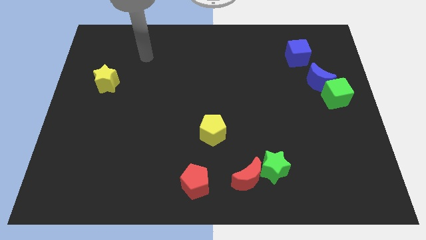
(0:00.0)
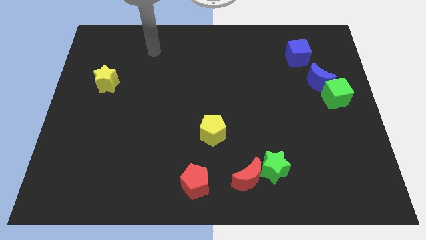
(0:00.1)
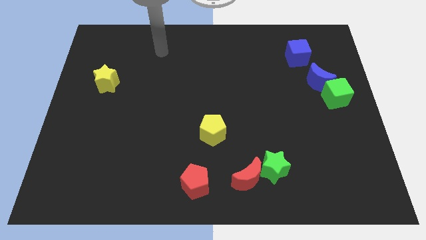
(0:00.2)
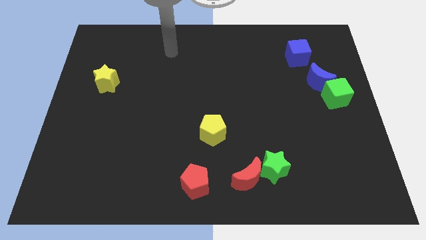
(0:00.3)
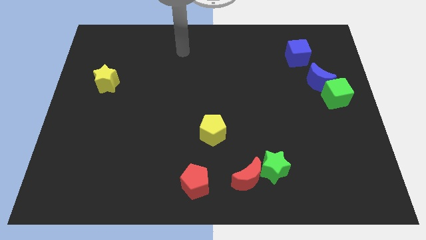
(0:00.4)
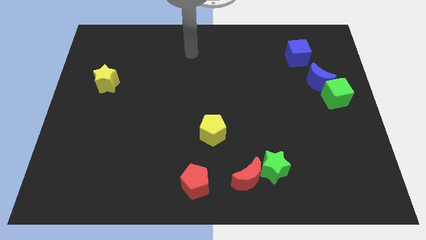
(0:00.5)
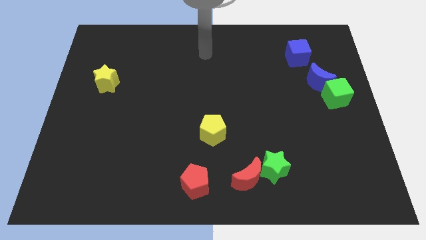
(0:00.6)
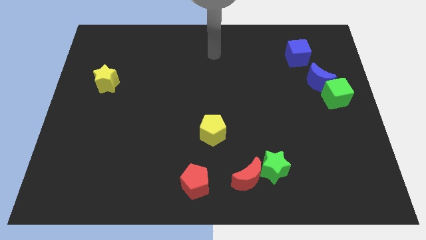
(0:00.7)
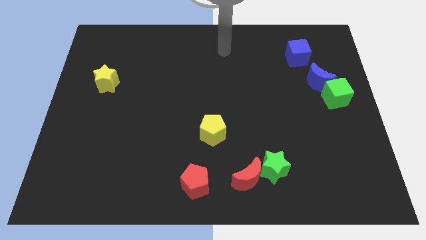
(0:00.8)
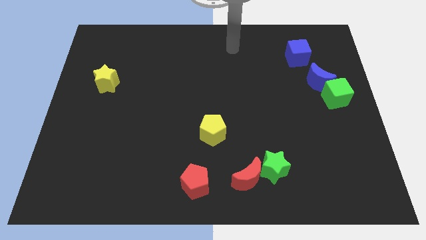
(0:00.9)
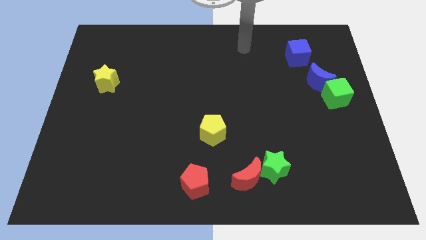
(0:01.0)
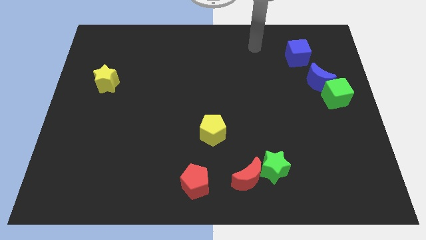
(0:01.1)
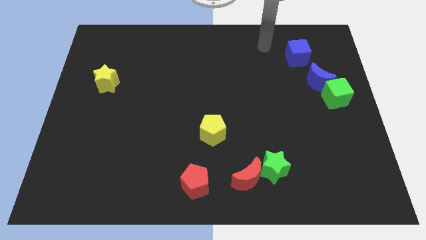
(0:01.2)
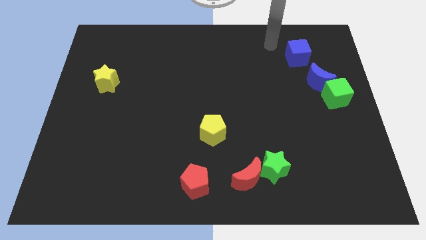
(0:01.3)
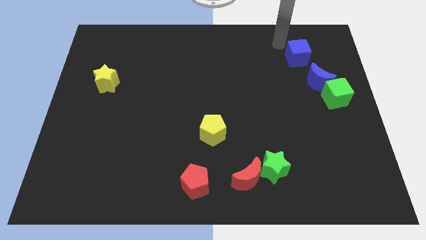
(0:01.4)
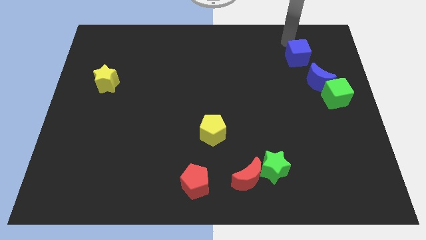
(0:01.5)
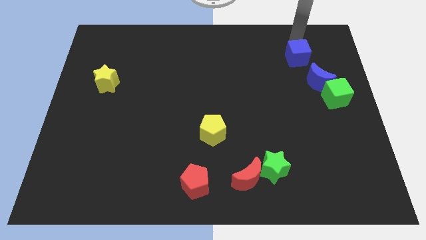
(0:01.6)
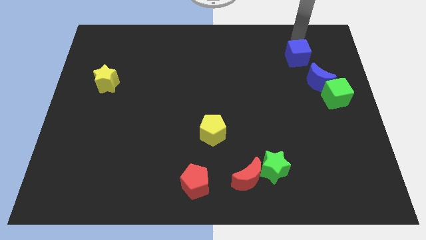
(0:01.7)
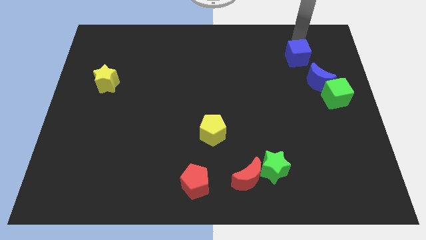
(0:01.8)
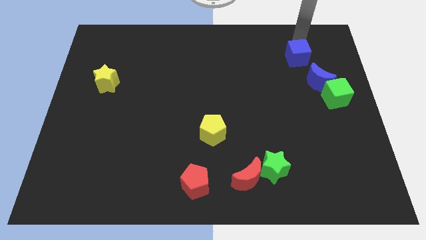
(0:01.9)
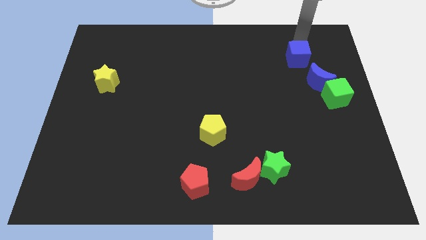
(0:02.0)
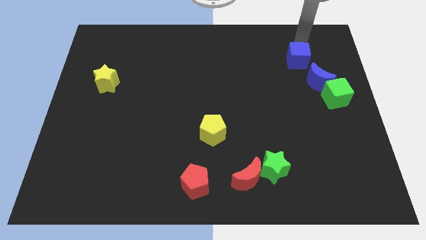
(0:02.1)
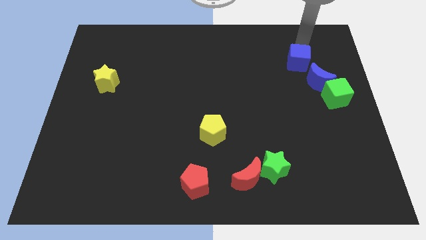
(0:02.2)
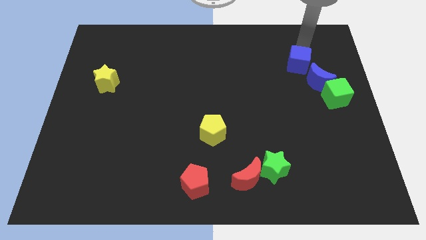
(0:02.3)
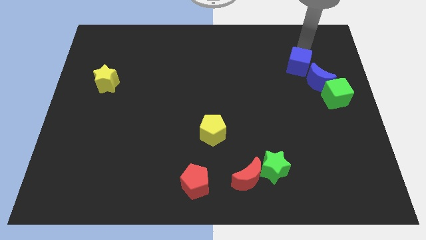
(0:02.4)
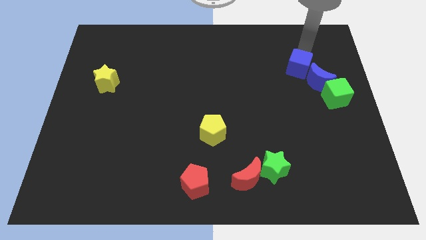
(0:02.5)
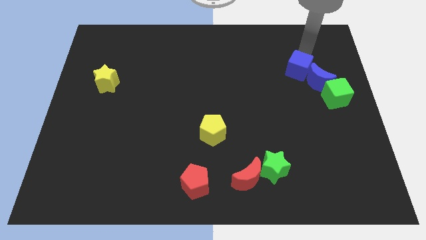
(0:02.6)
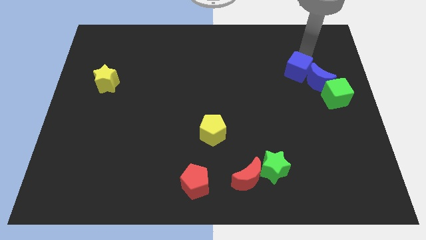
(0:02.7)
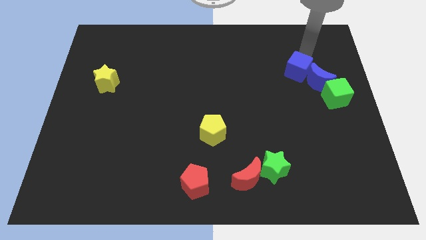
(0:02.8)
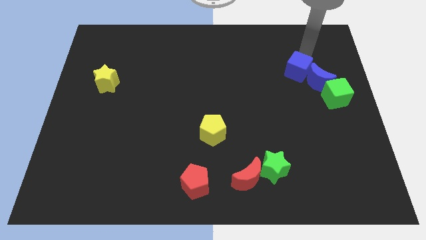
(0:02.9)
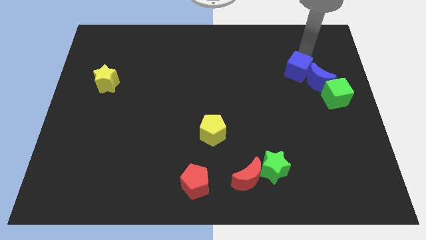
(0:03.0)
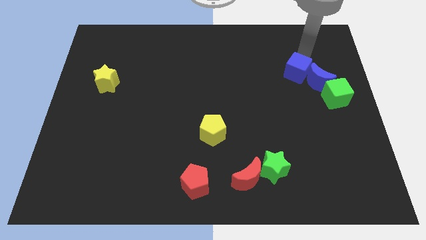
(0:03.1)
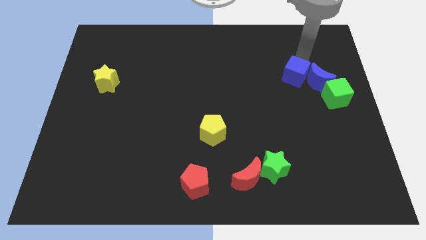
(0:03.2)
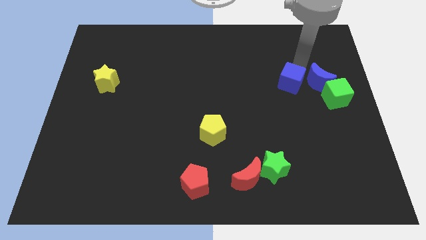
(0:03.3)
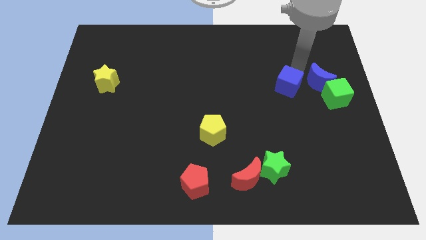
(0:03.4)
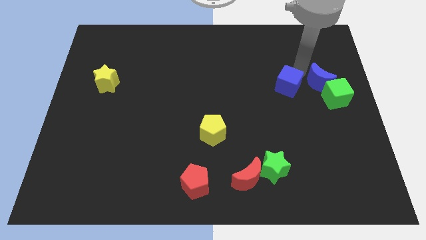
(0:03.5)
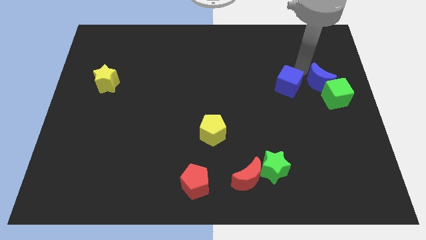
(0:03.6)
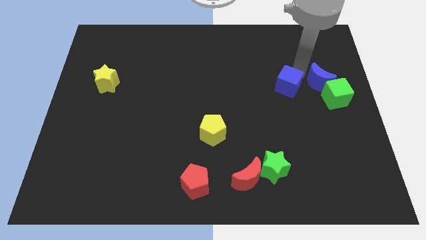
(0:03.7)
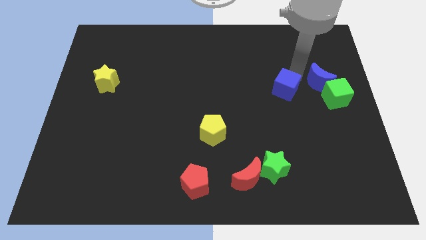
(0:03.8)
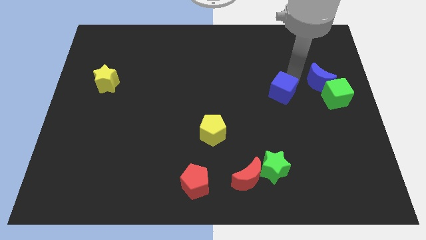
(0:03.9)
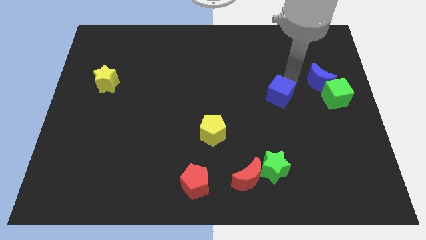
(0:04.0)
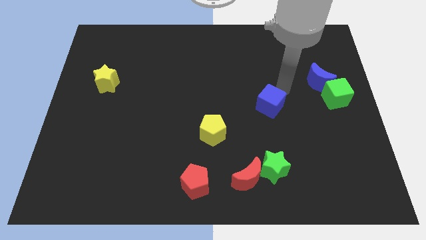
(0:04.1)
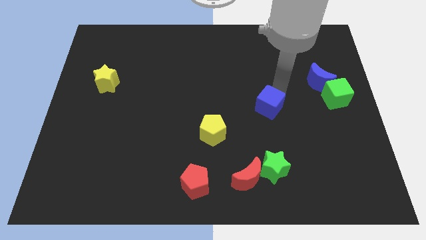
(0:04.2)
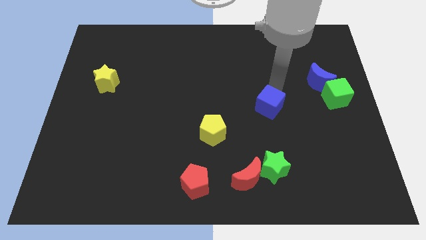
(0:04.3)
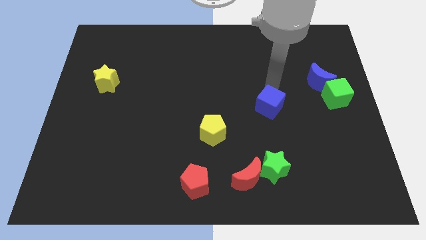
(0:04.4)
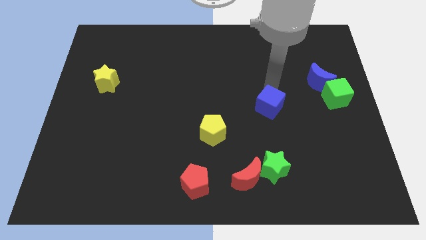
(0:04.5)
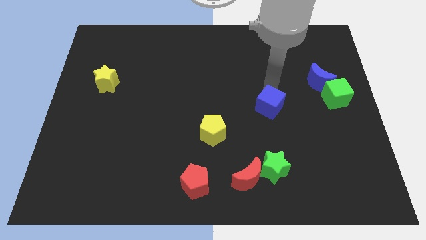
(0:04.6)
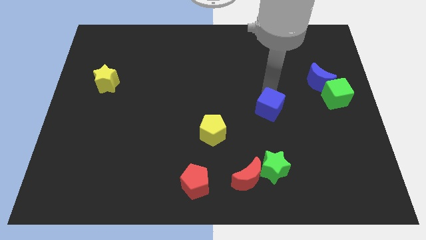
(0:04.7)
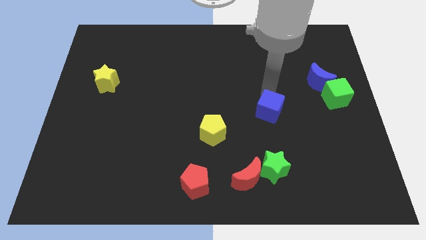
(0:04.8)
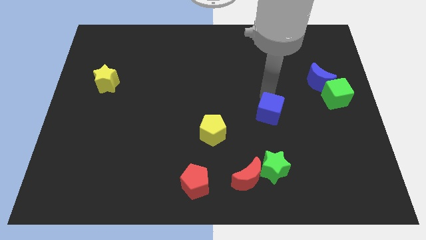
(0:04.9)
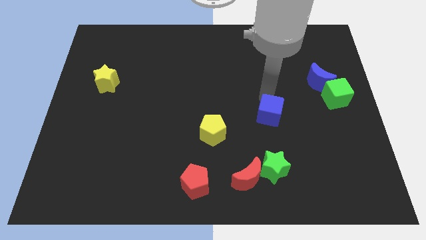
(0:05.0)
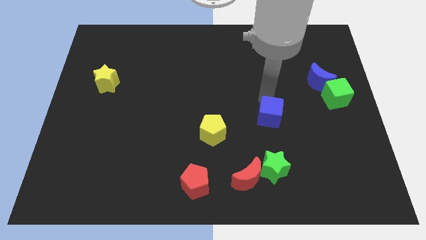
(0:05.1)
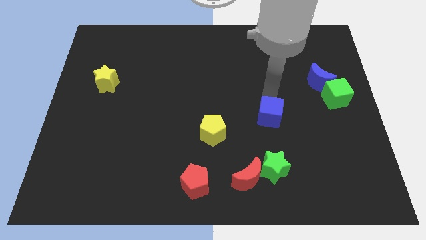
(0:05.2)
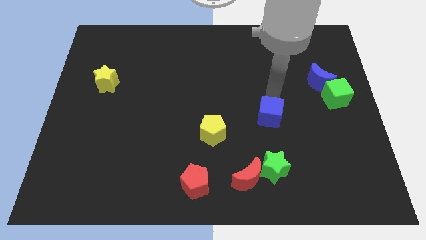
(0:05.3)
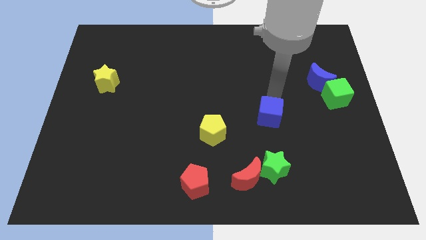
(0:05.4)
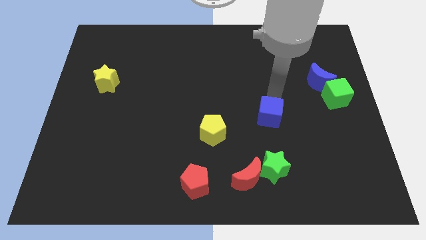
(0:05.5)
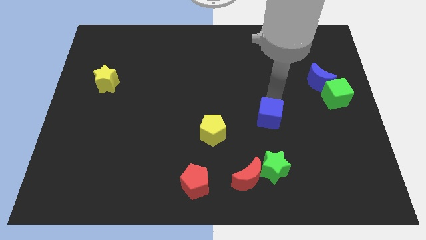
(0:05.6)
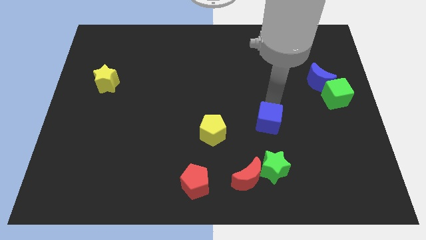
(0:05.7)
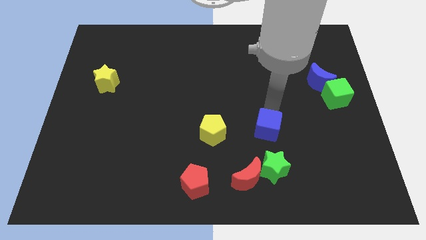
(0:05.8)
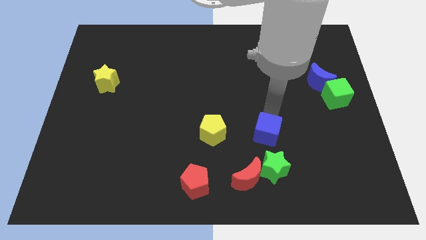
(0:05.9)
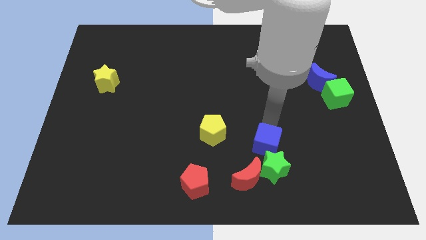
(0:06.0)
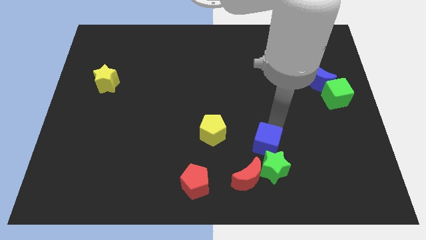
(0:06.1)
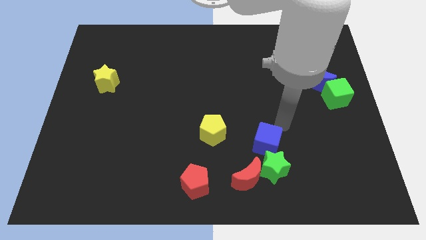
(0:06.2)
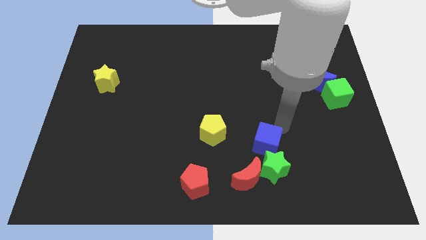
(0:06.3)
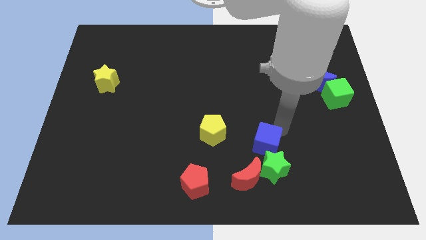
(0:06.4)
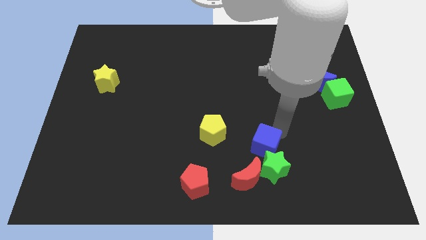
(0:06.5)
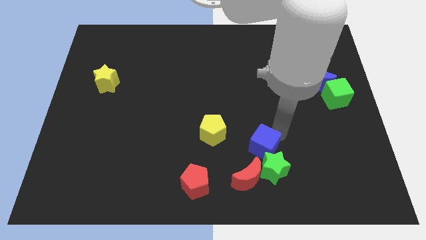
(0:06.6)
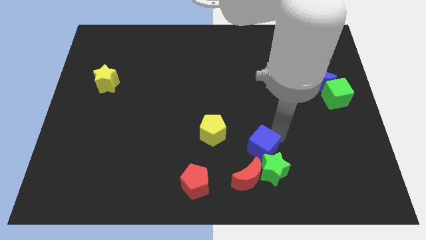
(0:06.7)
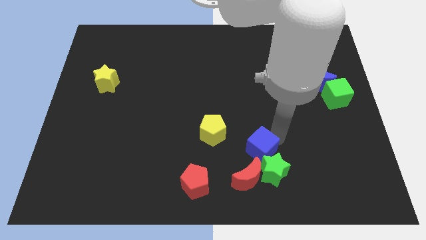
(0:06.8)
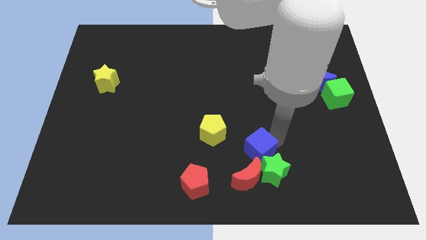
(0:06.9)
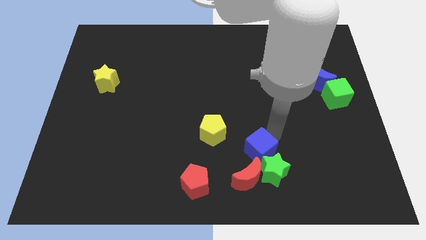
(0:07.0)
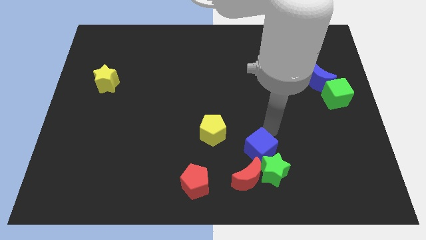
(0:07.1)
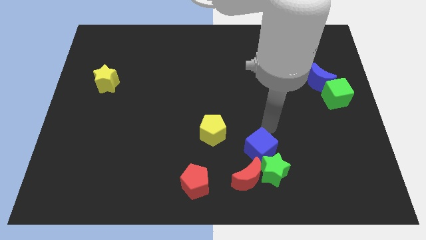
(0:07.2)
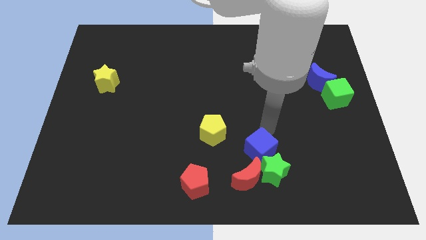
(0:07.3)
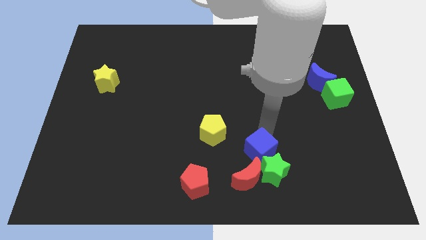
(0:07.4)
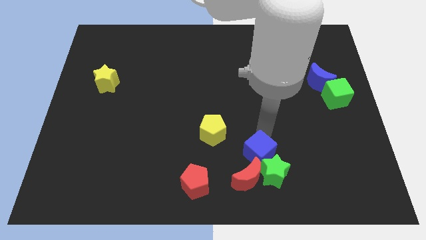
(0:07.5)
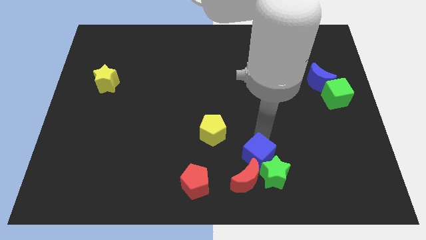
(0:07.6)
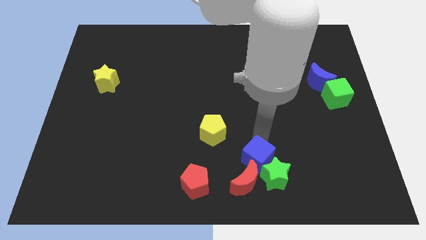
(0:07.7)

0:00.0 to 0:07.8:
put the blue cube towards the red moon

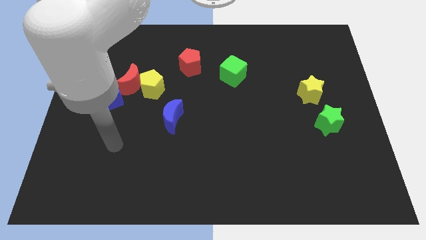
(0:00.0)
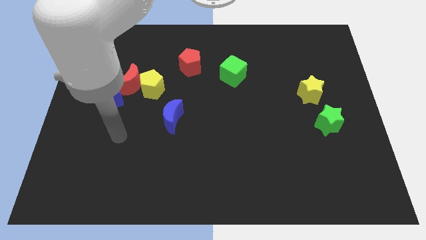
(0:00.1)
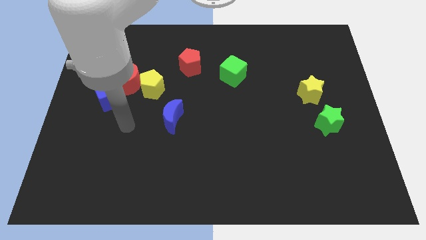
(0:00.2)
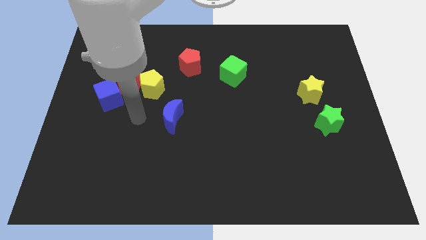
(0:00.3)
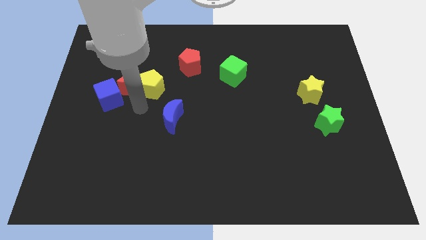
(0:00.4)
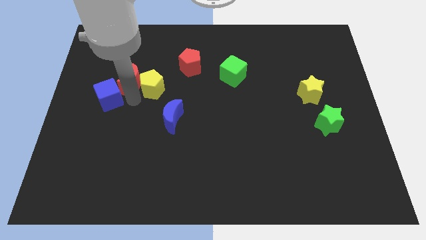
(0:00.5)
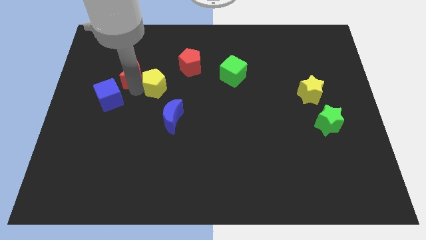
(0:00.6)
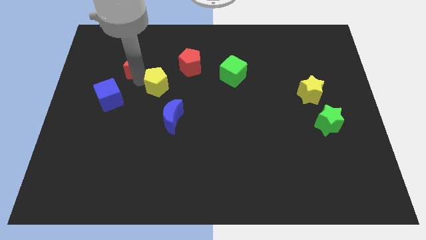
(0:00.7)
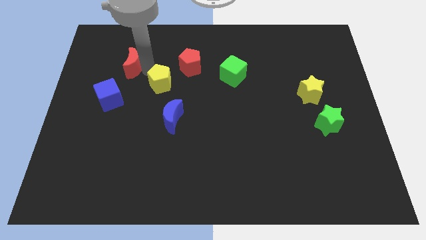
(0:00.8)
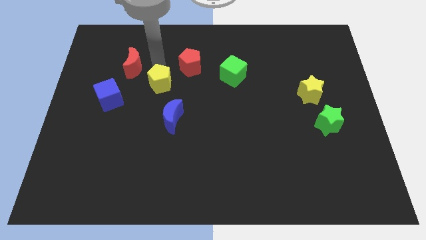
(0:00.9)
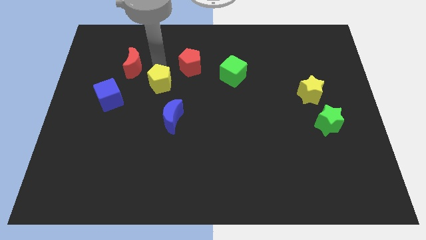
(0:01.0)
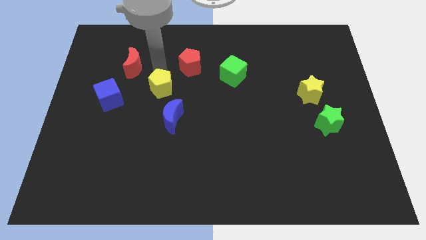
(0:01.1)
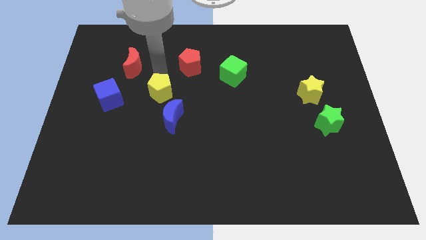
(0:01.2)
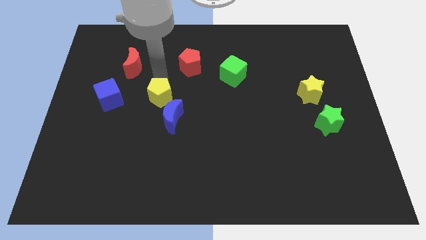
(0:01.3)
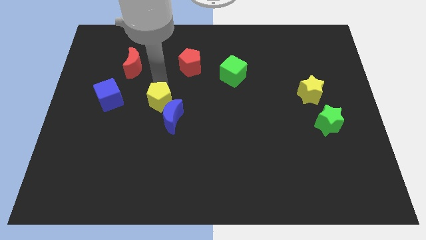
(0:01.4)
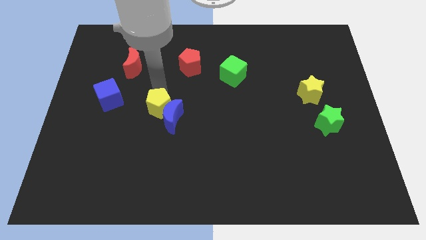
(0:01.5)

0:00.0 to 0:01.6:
move the yellow pentagon to the blue moon
